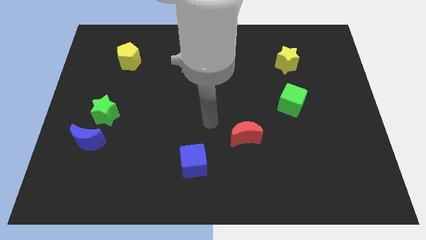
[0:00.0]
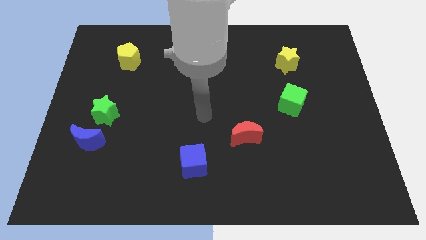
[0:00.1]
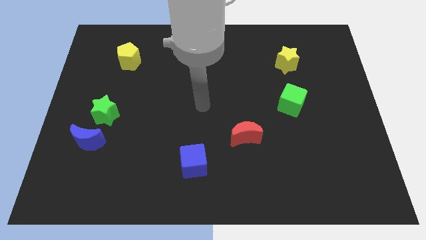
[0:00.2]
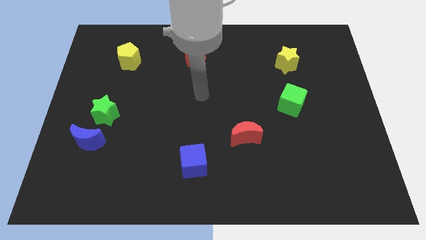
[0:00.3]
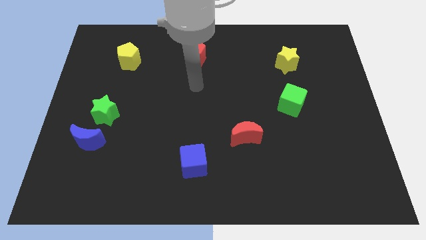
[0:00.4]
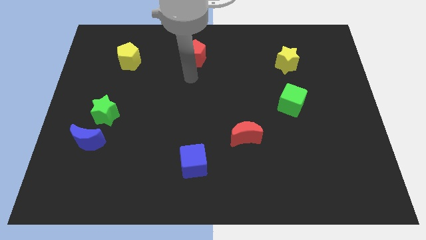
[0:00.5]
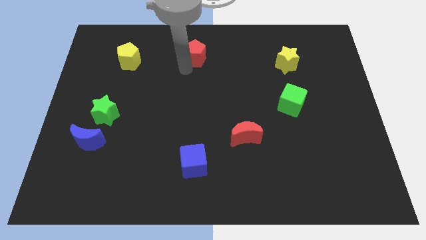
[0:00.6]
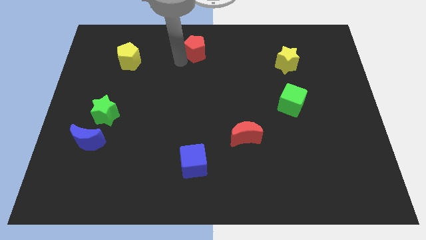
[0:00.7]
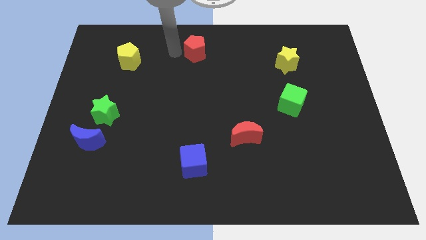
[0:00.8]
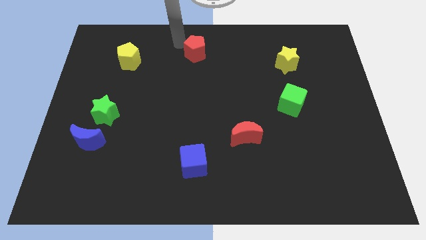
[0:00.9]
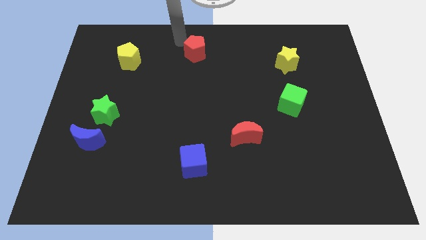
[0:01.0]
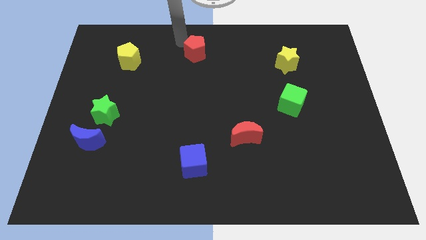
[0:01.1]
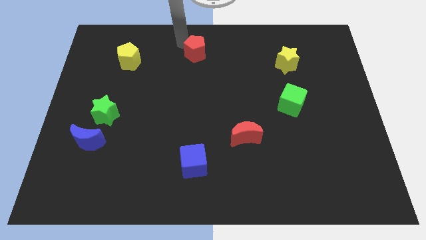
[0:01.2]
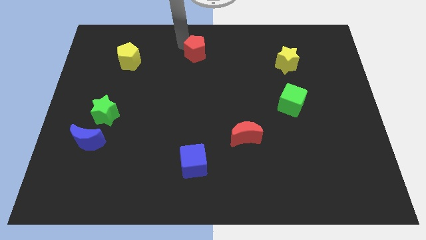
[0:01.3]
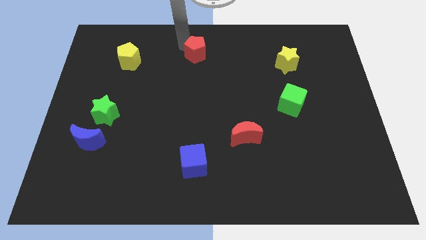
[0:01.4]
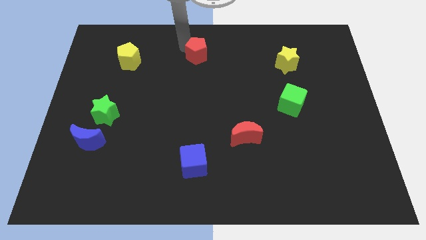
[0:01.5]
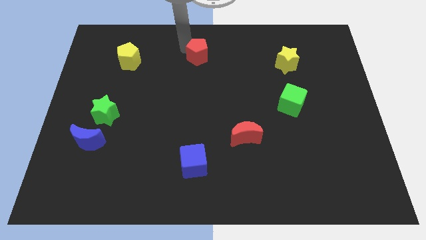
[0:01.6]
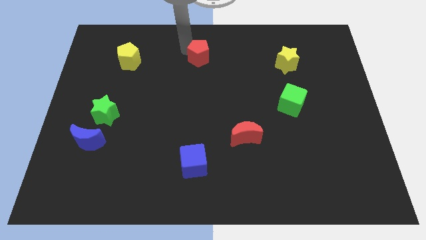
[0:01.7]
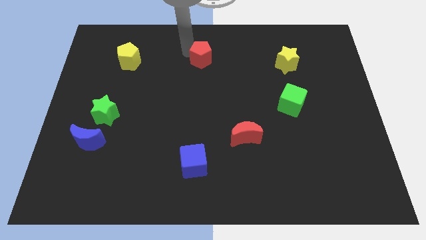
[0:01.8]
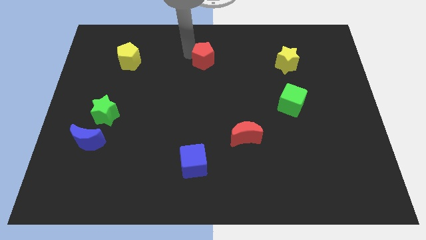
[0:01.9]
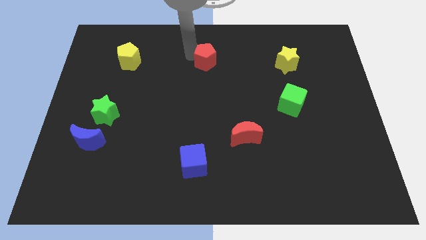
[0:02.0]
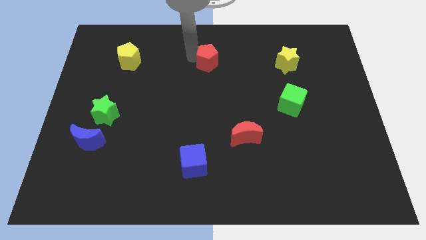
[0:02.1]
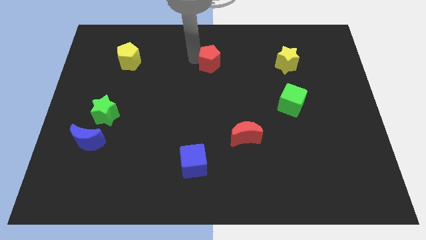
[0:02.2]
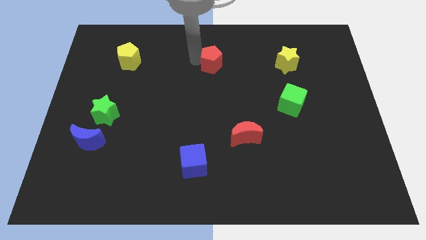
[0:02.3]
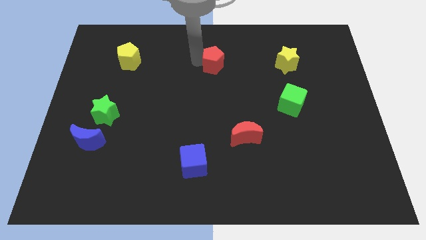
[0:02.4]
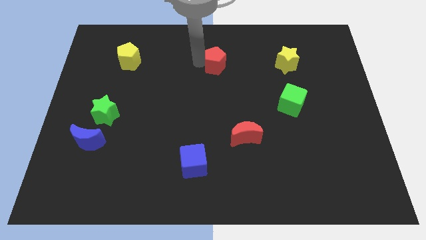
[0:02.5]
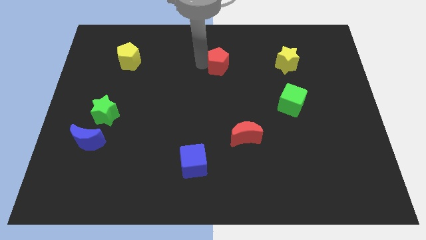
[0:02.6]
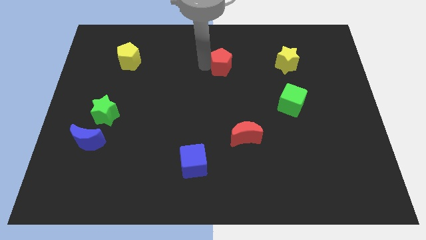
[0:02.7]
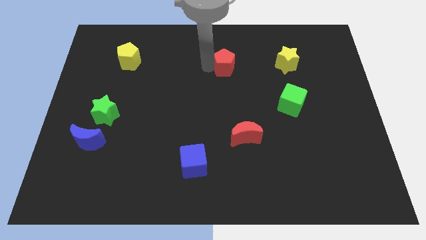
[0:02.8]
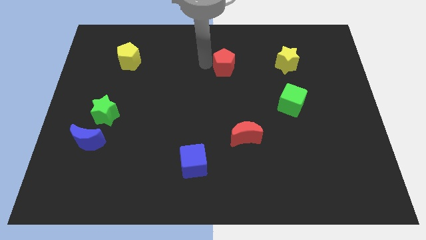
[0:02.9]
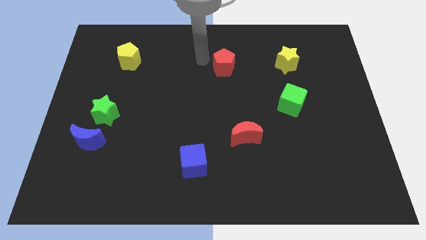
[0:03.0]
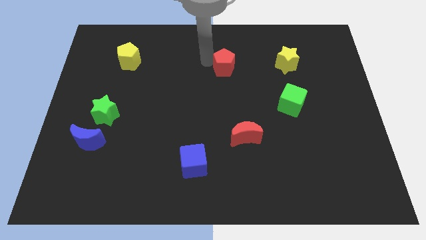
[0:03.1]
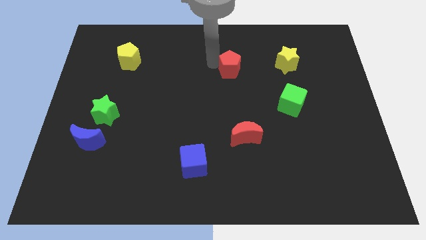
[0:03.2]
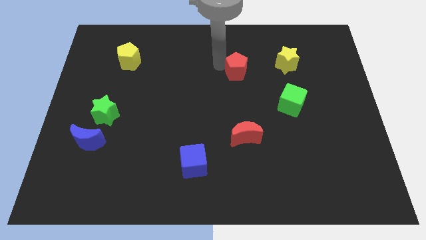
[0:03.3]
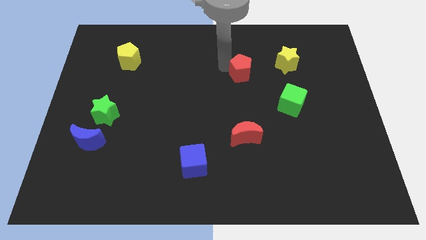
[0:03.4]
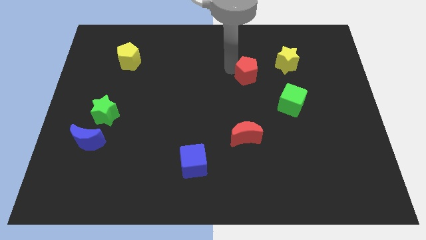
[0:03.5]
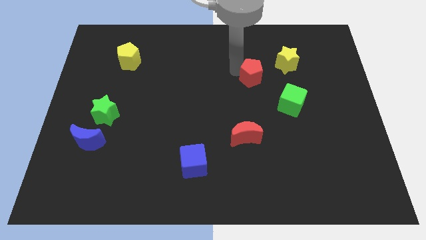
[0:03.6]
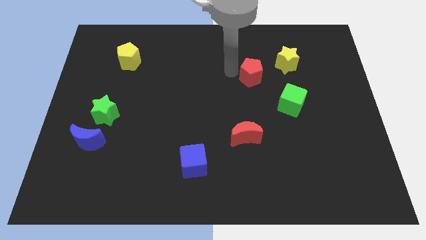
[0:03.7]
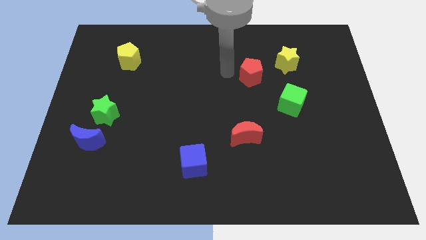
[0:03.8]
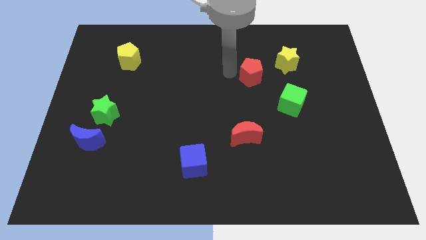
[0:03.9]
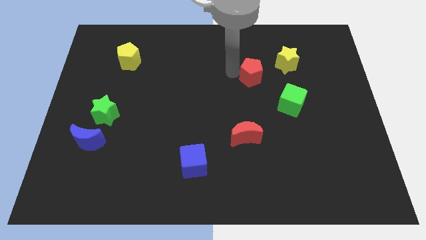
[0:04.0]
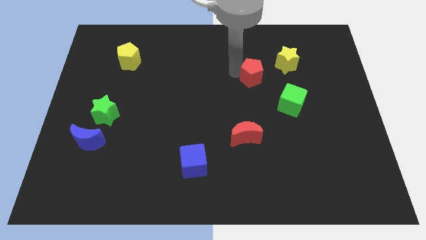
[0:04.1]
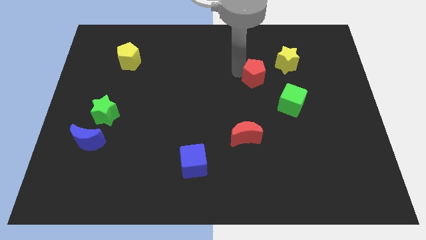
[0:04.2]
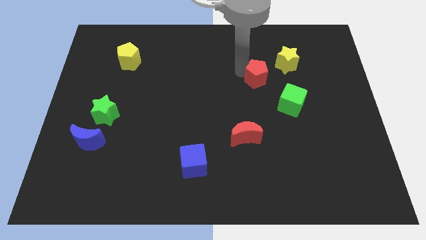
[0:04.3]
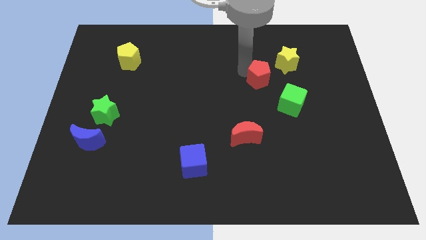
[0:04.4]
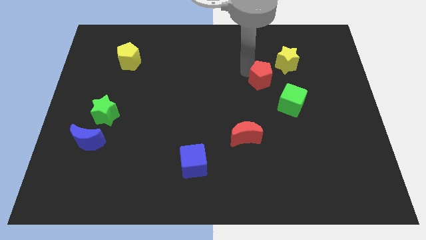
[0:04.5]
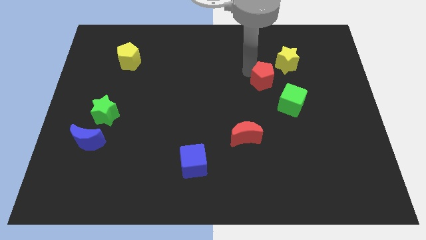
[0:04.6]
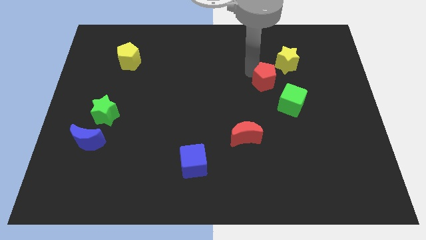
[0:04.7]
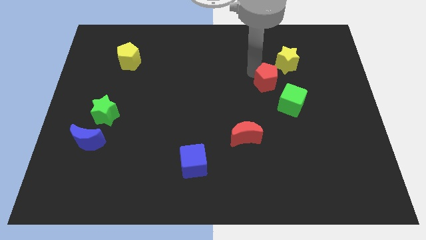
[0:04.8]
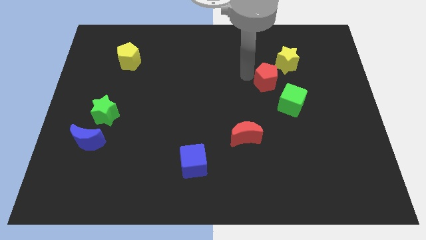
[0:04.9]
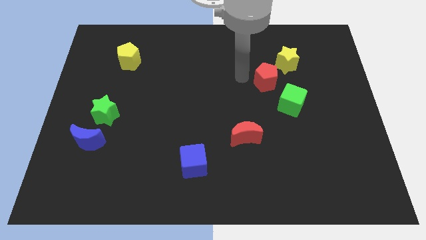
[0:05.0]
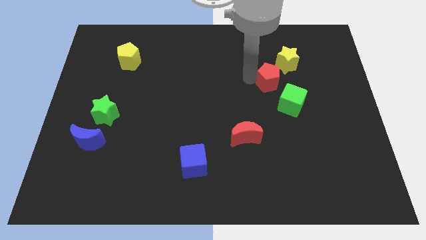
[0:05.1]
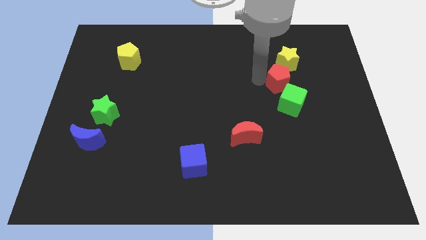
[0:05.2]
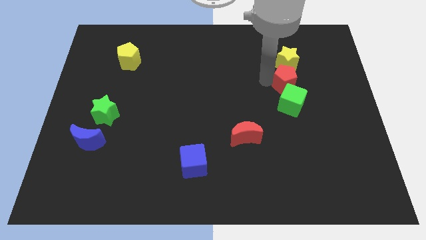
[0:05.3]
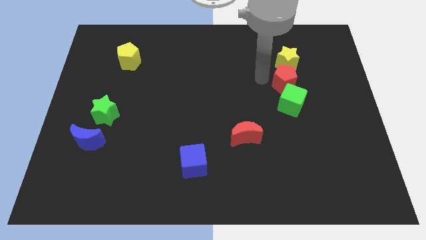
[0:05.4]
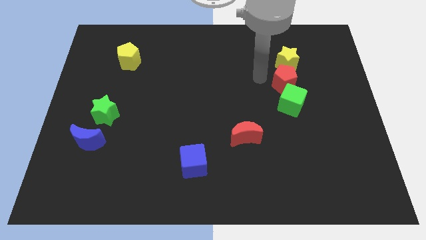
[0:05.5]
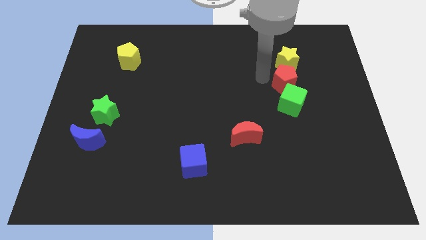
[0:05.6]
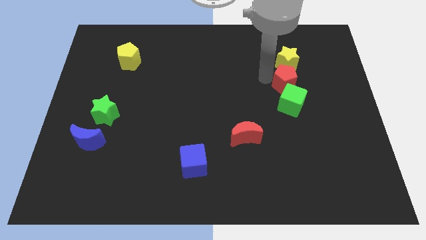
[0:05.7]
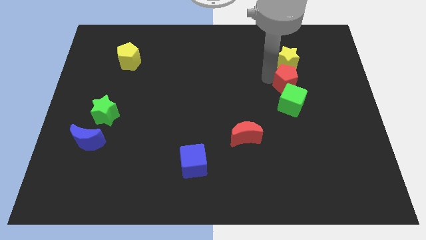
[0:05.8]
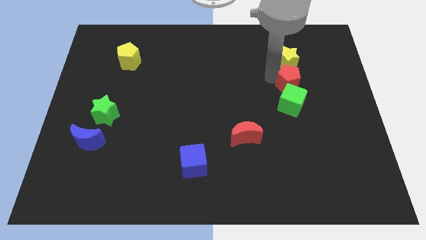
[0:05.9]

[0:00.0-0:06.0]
move the red pentagon to the top right side of the green cube

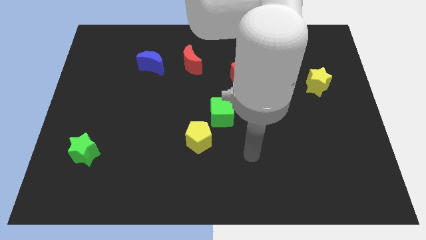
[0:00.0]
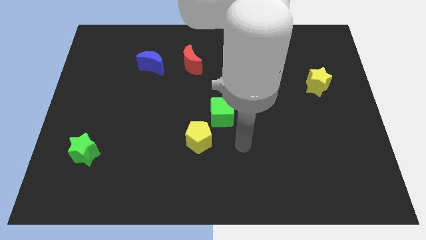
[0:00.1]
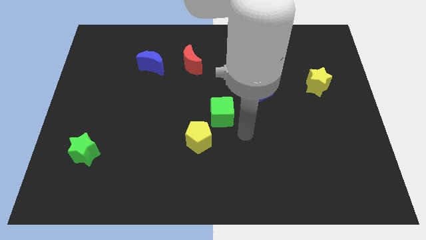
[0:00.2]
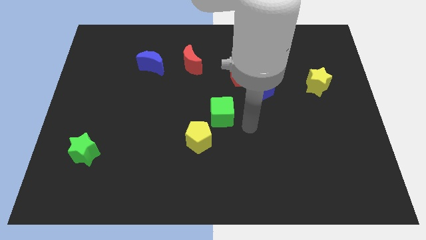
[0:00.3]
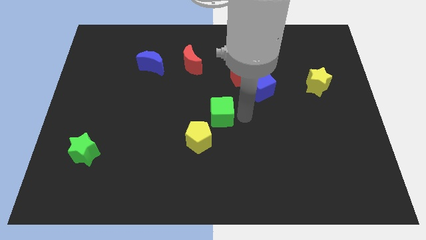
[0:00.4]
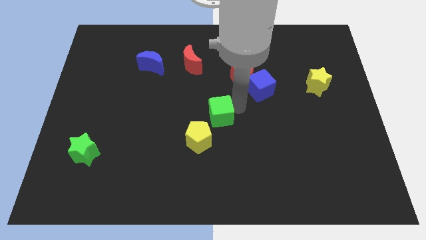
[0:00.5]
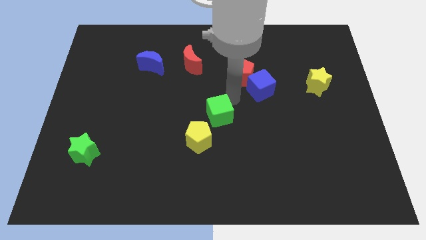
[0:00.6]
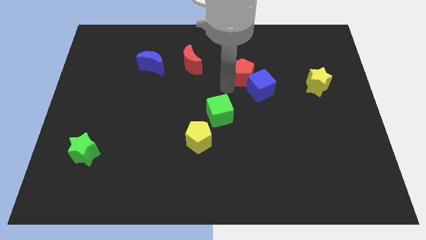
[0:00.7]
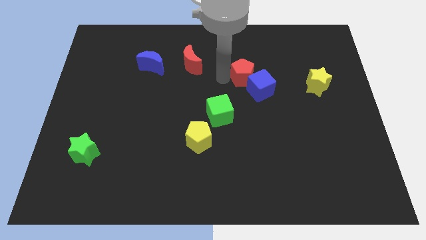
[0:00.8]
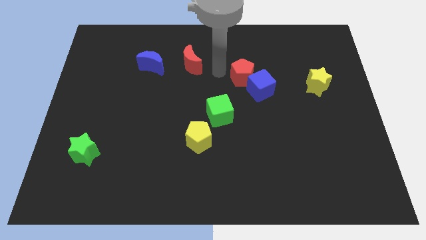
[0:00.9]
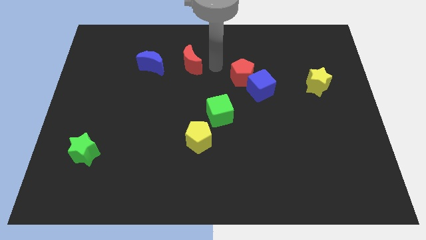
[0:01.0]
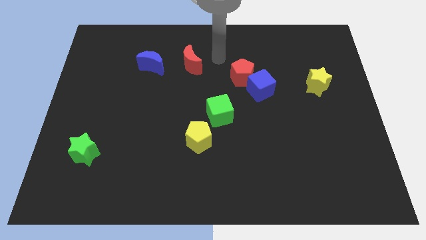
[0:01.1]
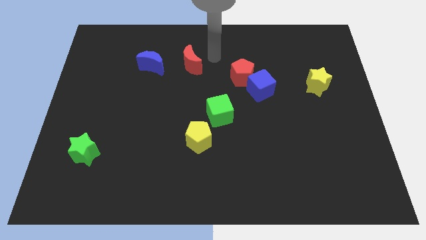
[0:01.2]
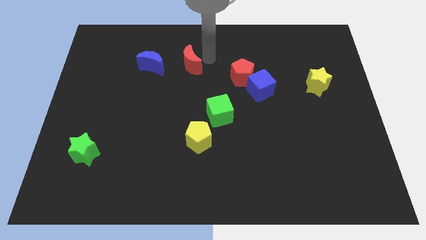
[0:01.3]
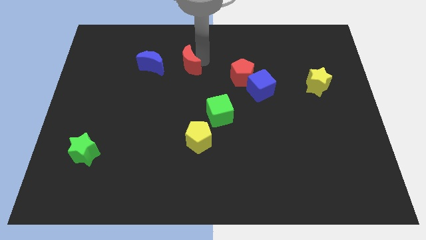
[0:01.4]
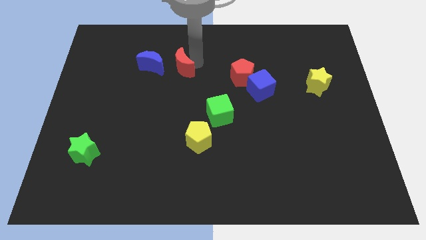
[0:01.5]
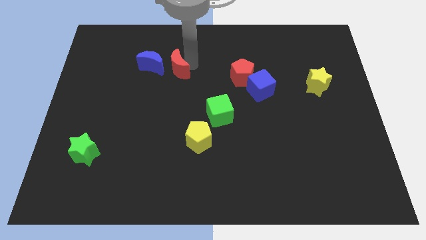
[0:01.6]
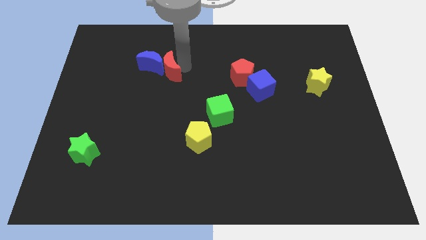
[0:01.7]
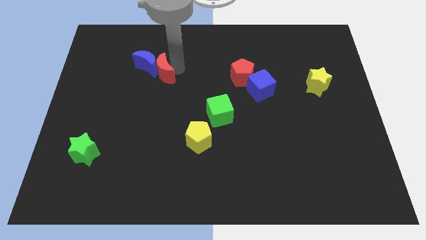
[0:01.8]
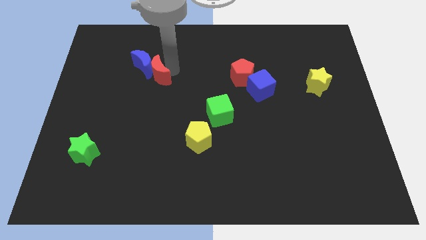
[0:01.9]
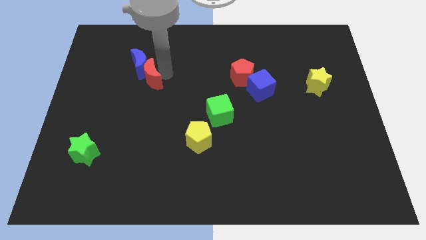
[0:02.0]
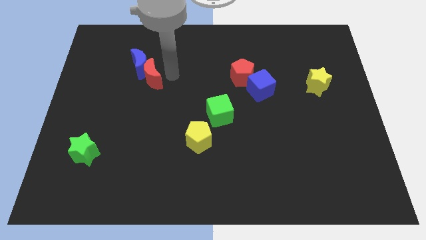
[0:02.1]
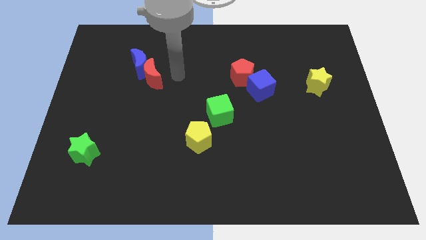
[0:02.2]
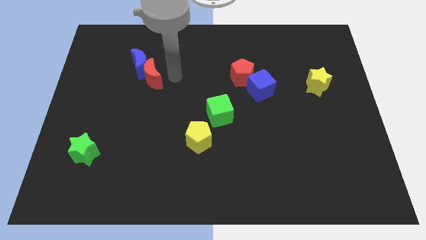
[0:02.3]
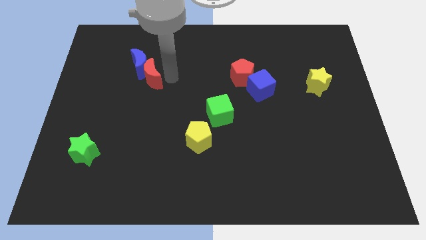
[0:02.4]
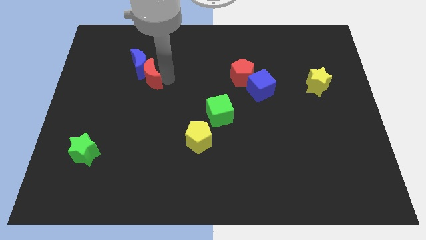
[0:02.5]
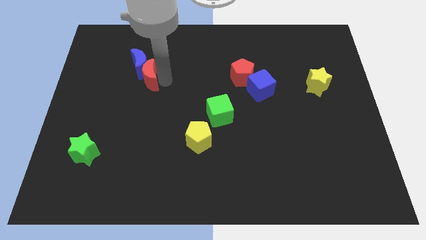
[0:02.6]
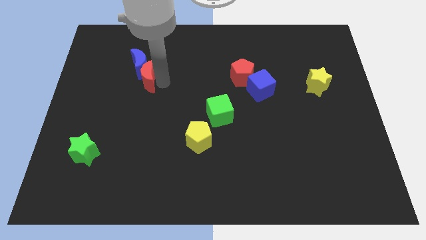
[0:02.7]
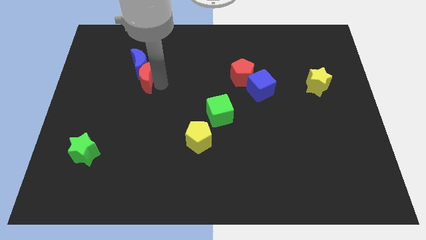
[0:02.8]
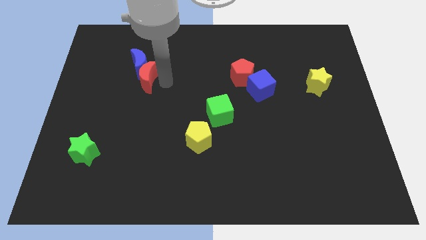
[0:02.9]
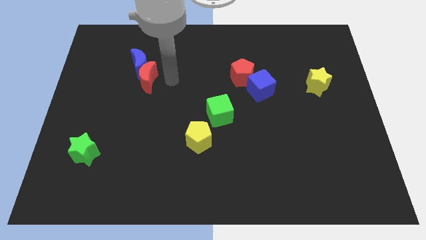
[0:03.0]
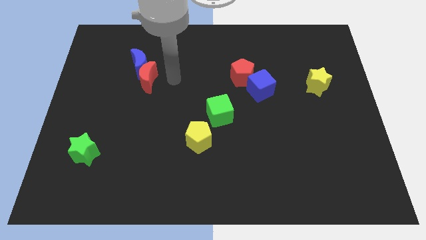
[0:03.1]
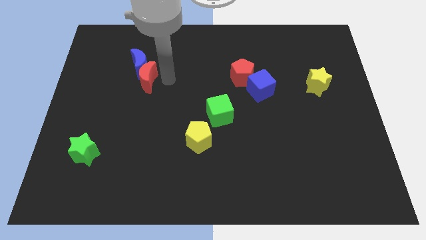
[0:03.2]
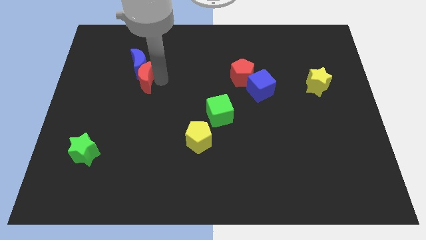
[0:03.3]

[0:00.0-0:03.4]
move the red moon to the bottom left of the blue moon
